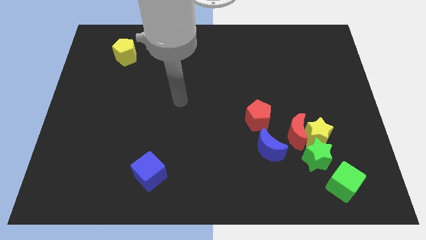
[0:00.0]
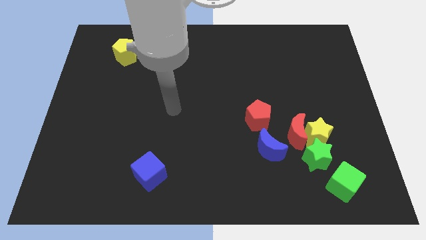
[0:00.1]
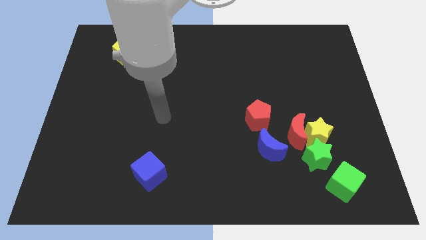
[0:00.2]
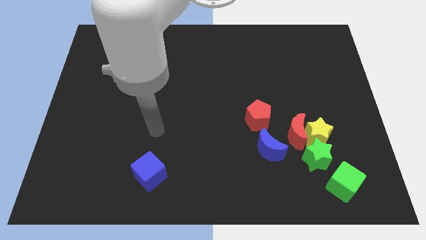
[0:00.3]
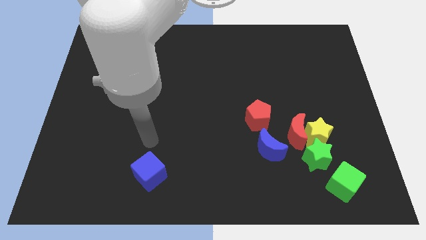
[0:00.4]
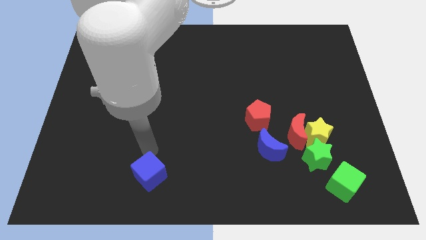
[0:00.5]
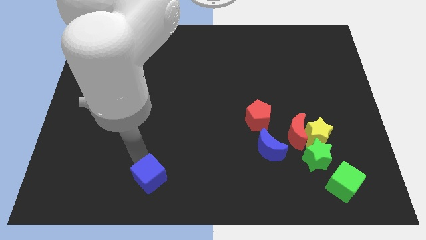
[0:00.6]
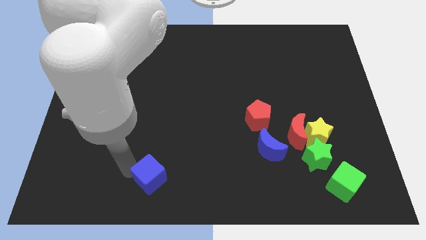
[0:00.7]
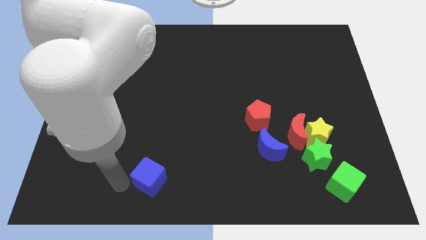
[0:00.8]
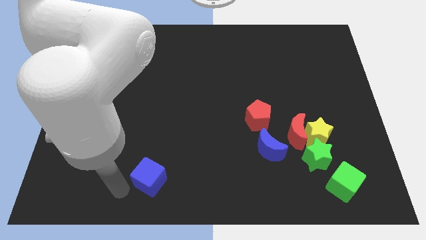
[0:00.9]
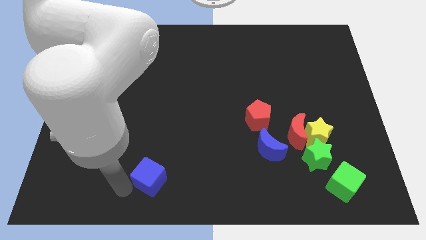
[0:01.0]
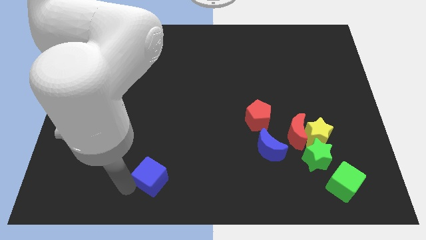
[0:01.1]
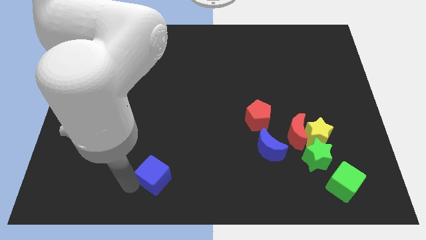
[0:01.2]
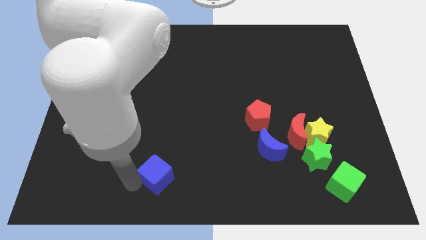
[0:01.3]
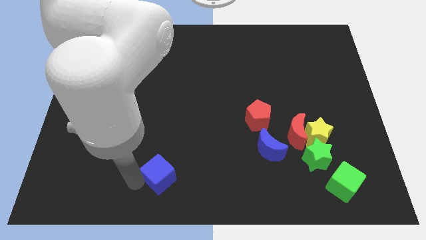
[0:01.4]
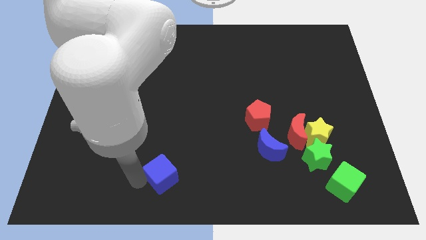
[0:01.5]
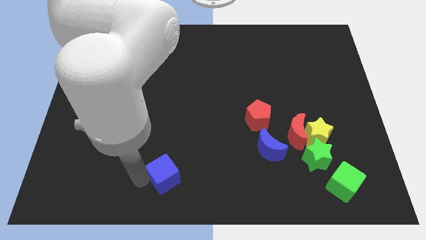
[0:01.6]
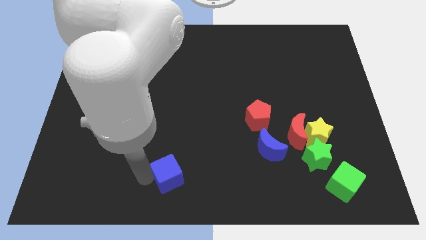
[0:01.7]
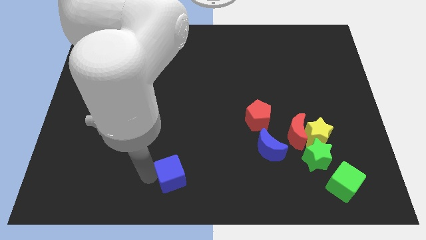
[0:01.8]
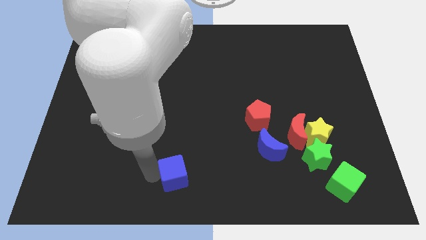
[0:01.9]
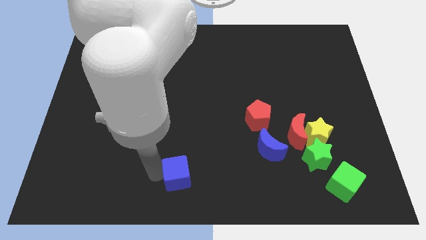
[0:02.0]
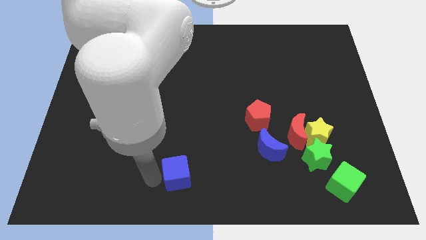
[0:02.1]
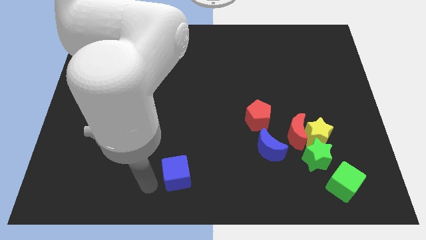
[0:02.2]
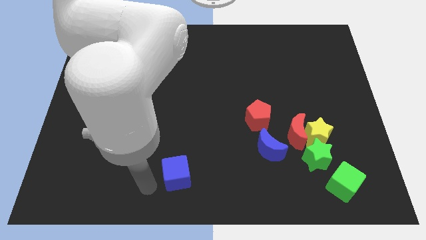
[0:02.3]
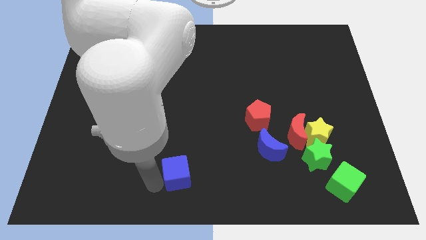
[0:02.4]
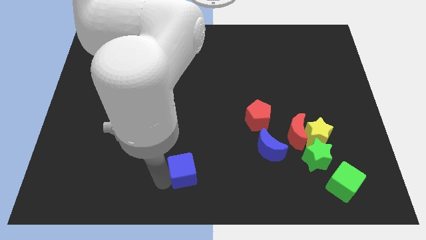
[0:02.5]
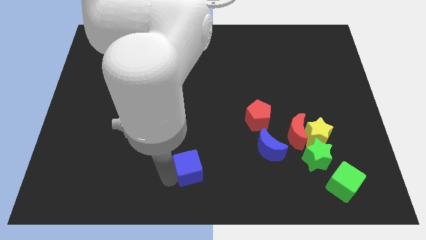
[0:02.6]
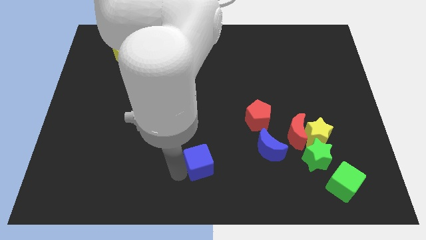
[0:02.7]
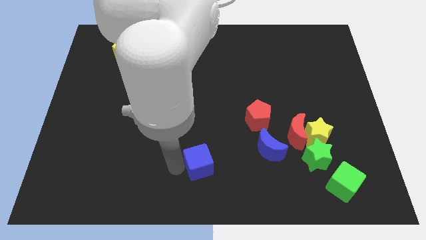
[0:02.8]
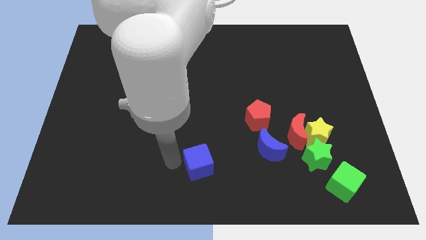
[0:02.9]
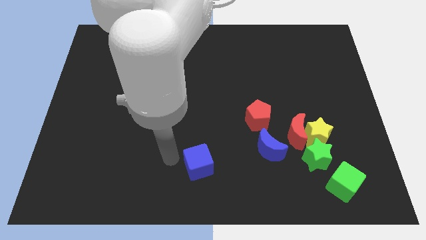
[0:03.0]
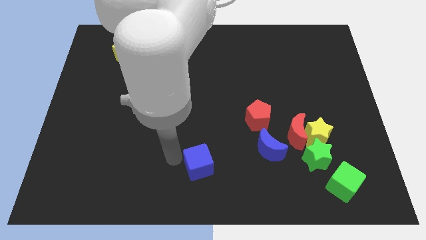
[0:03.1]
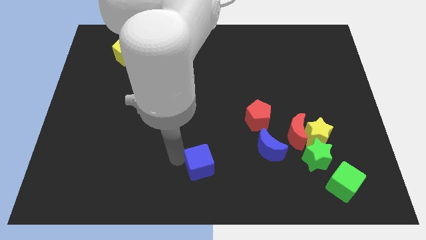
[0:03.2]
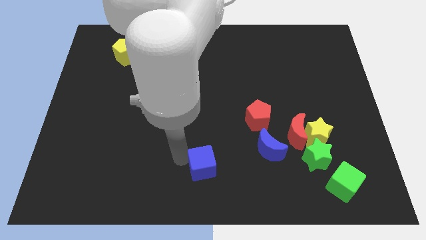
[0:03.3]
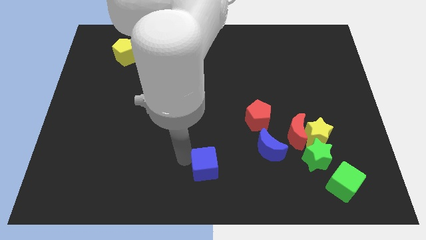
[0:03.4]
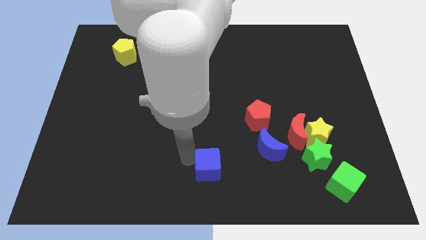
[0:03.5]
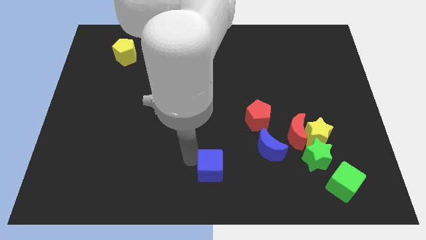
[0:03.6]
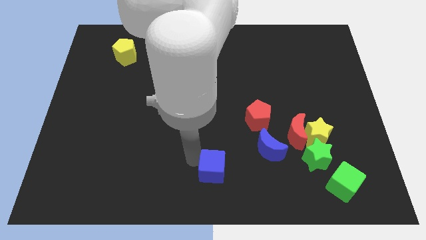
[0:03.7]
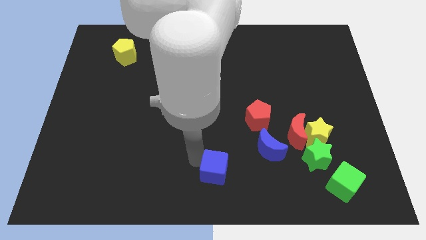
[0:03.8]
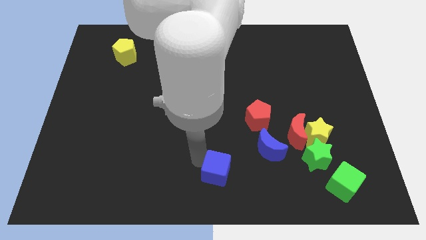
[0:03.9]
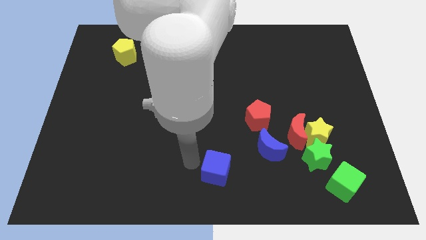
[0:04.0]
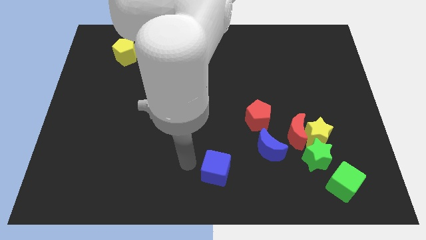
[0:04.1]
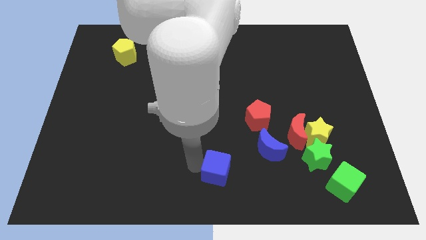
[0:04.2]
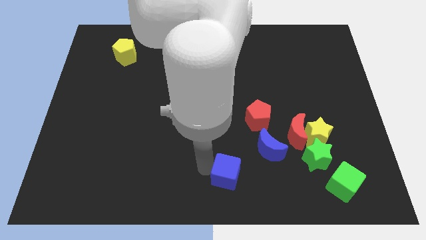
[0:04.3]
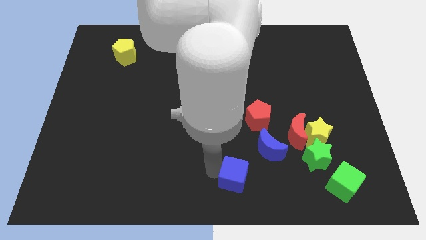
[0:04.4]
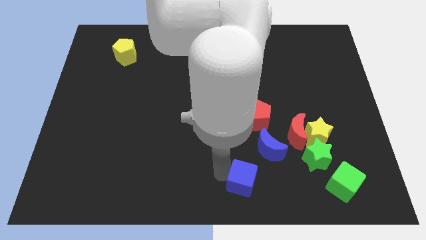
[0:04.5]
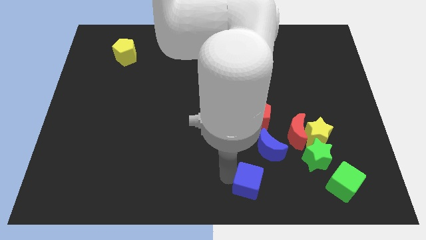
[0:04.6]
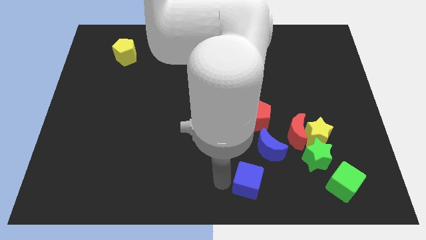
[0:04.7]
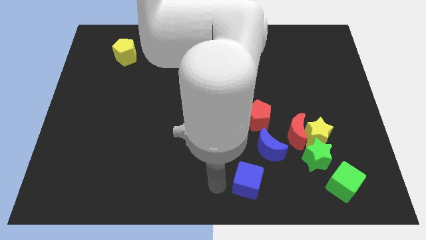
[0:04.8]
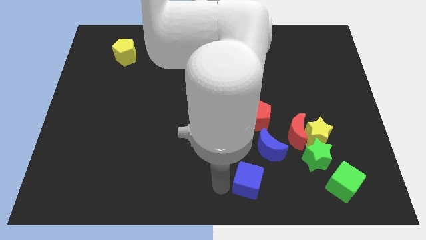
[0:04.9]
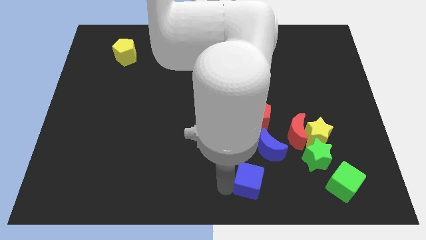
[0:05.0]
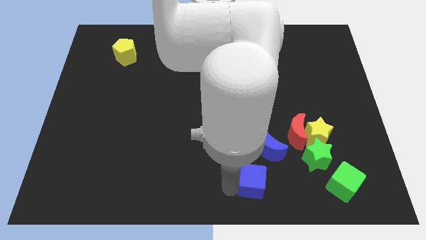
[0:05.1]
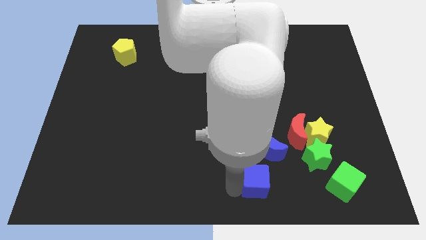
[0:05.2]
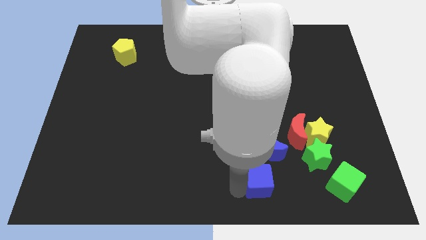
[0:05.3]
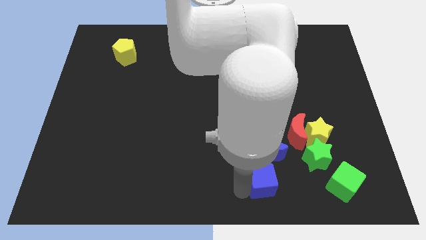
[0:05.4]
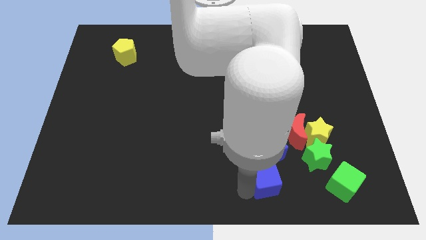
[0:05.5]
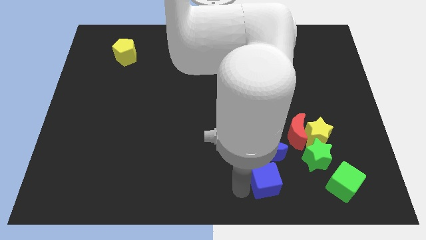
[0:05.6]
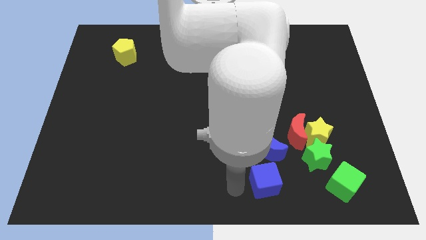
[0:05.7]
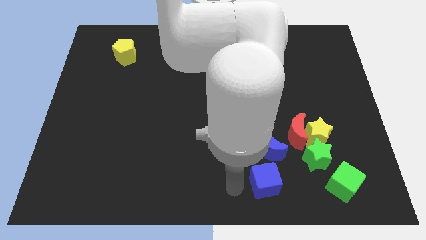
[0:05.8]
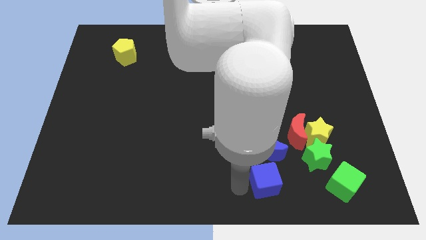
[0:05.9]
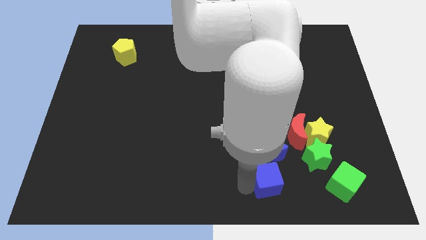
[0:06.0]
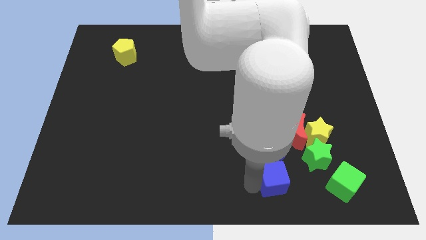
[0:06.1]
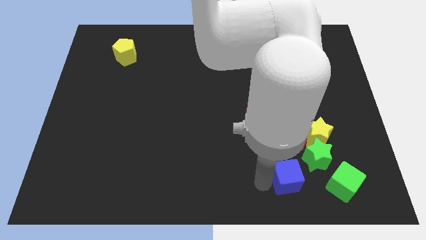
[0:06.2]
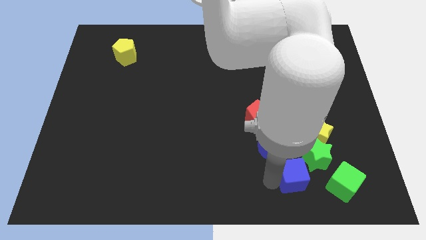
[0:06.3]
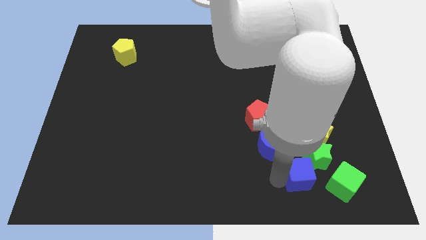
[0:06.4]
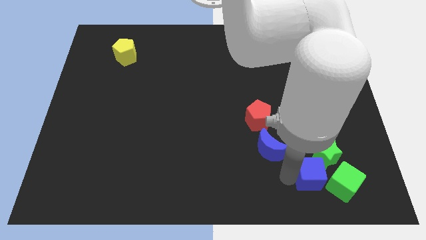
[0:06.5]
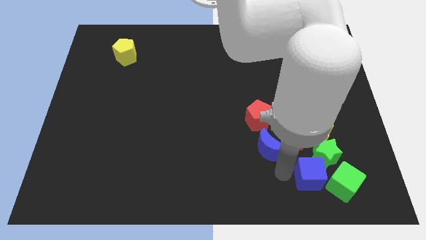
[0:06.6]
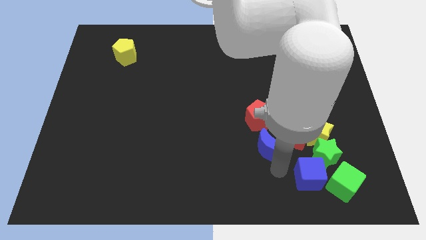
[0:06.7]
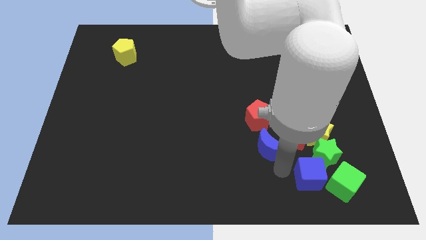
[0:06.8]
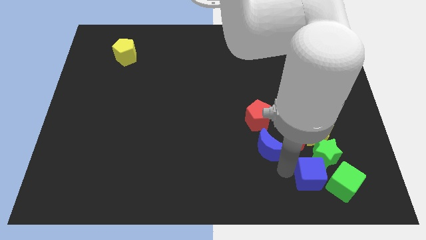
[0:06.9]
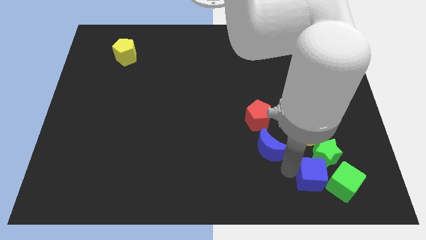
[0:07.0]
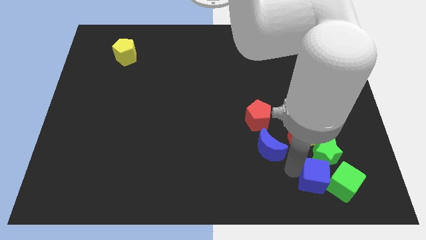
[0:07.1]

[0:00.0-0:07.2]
push the blue cube close to the green cube

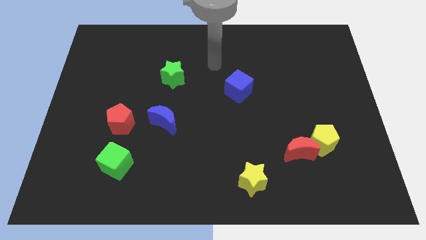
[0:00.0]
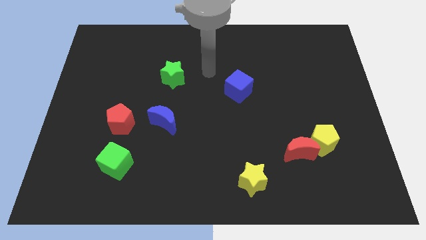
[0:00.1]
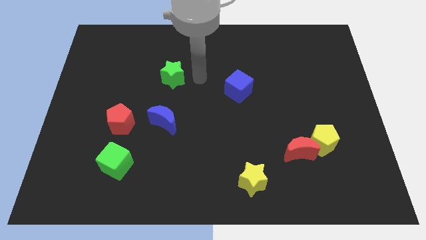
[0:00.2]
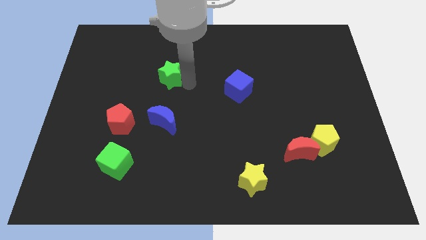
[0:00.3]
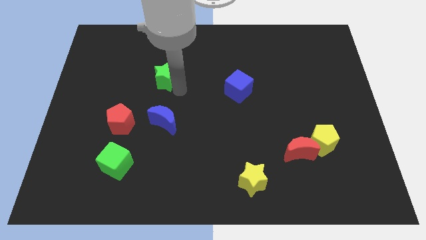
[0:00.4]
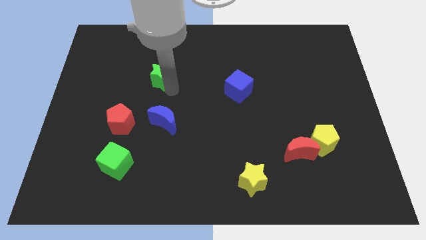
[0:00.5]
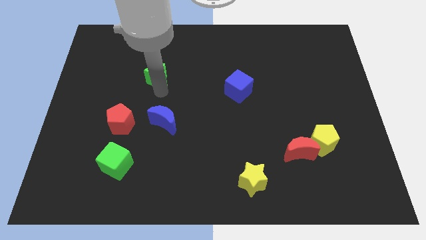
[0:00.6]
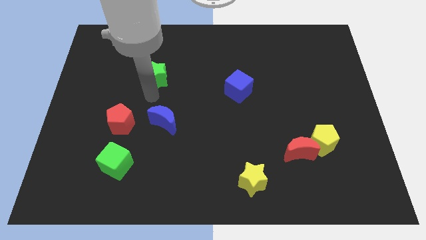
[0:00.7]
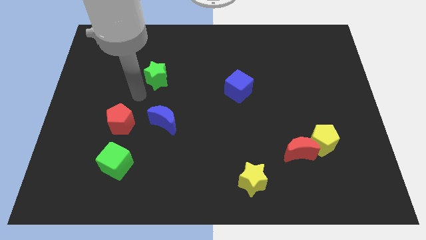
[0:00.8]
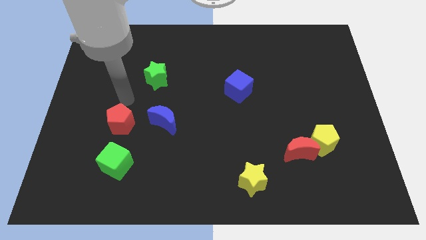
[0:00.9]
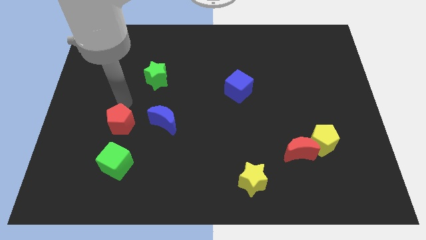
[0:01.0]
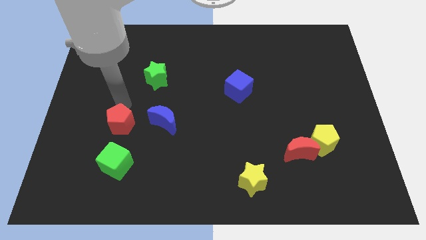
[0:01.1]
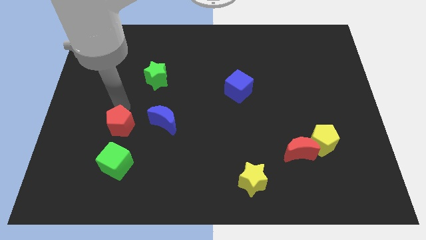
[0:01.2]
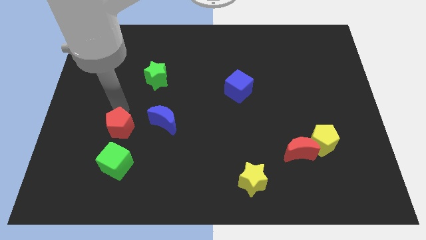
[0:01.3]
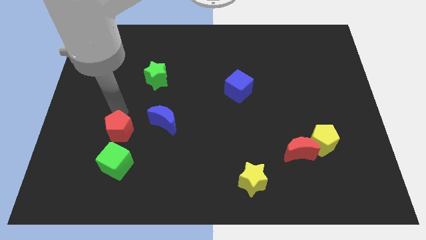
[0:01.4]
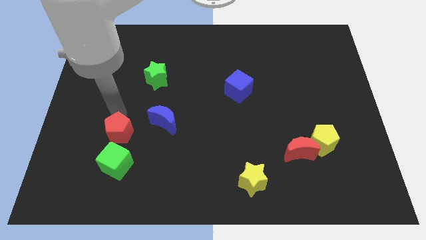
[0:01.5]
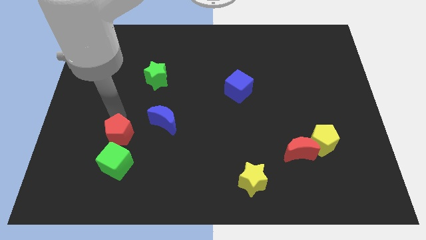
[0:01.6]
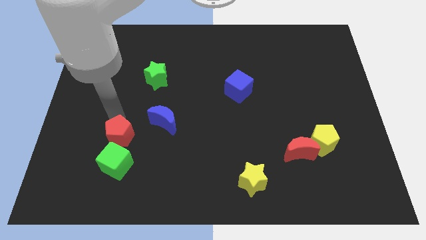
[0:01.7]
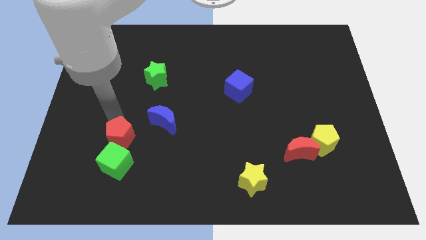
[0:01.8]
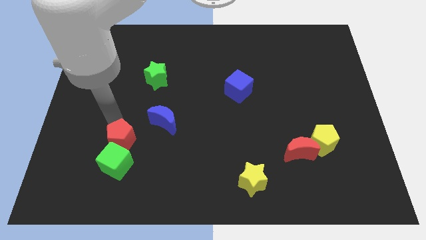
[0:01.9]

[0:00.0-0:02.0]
put the red pentagon close to the green cube
